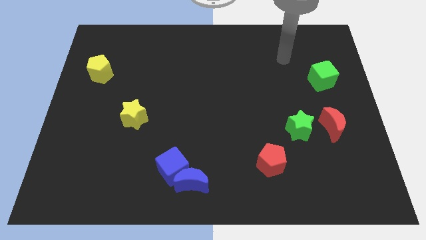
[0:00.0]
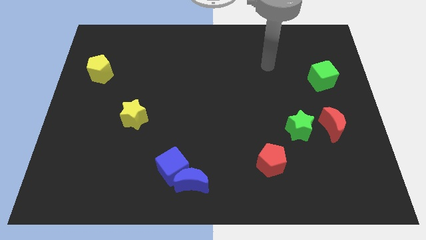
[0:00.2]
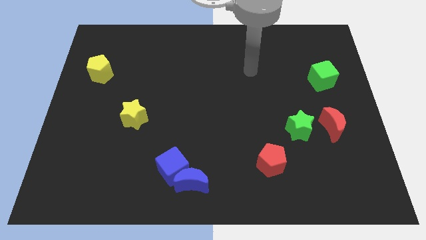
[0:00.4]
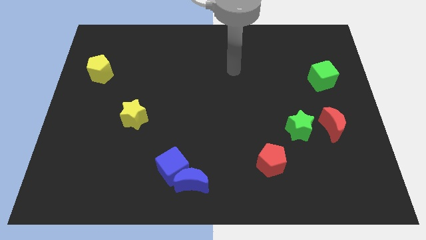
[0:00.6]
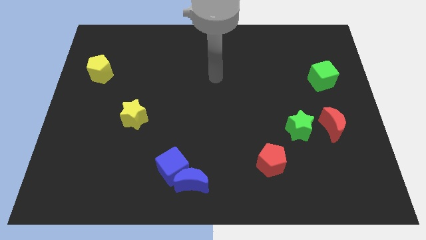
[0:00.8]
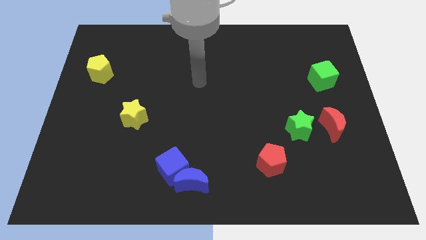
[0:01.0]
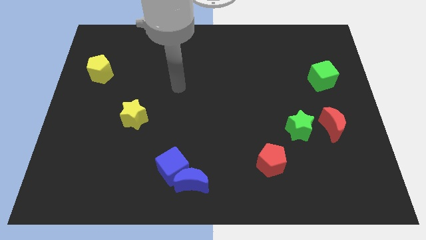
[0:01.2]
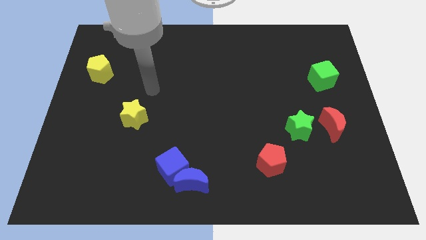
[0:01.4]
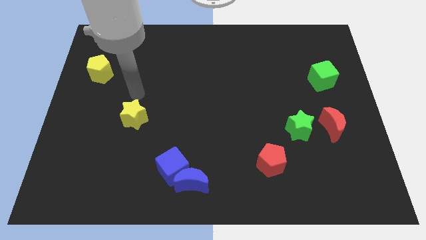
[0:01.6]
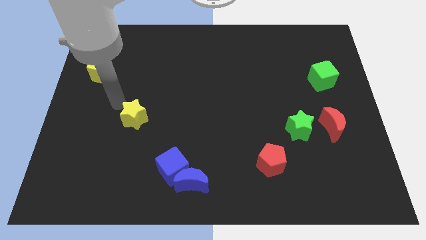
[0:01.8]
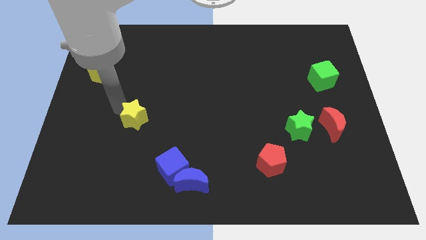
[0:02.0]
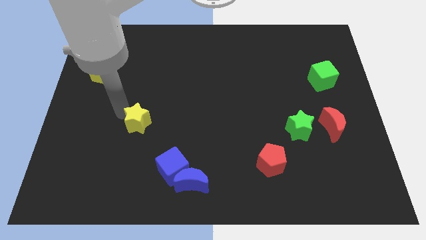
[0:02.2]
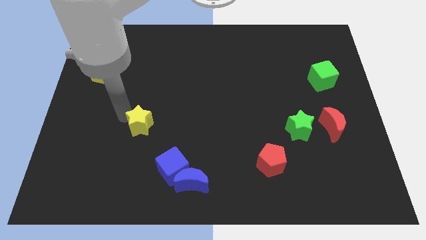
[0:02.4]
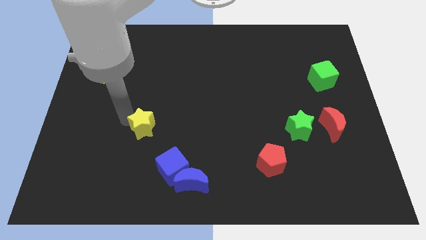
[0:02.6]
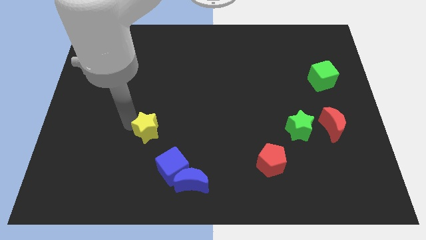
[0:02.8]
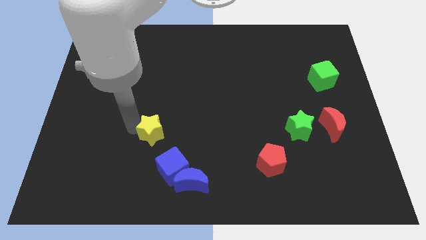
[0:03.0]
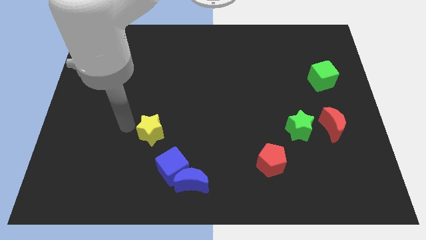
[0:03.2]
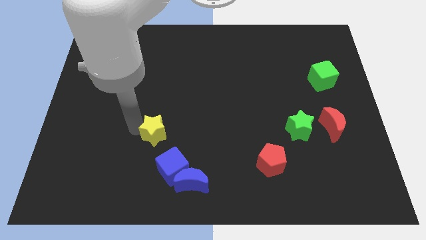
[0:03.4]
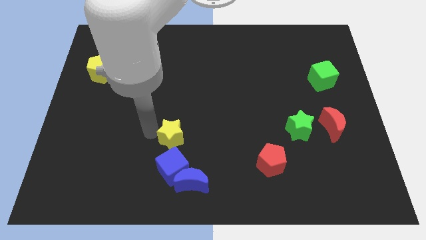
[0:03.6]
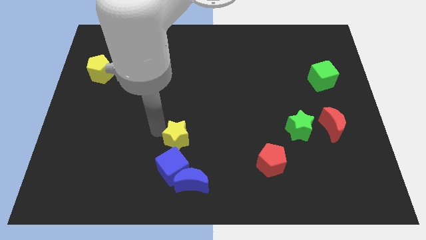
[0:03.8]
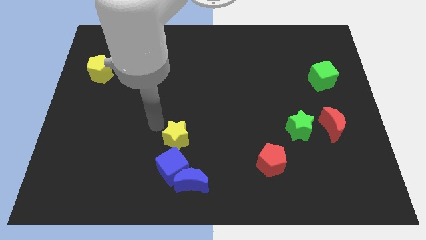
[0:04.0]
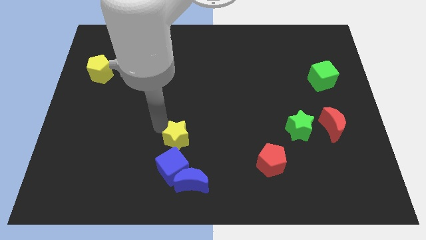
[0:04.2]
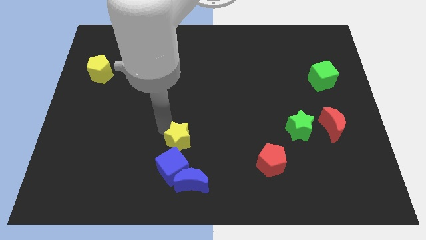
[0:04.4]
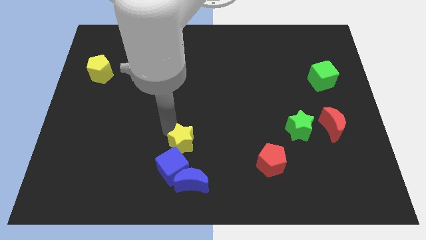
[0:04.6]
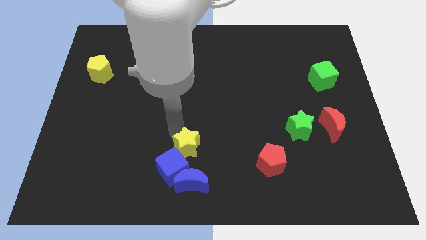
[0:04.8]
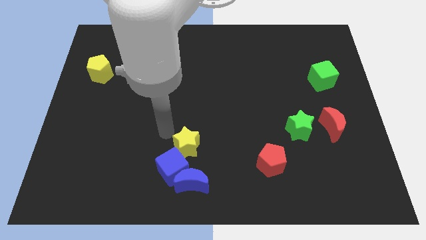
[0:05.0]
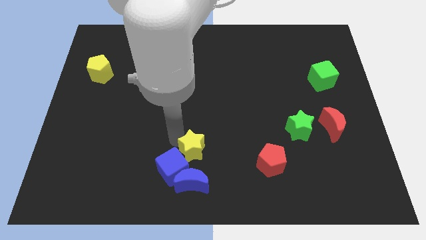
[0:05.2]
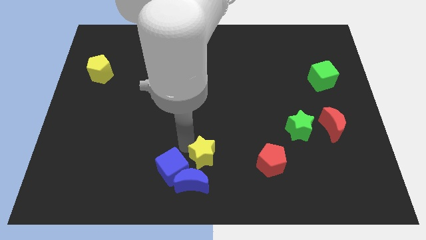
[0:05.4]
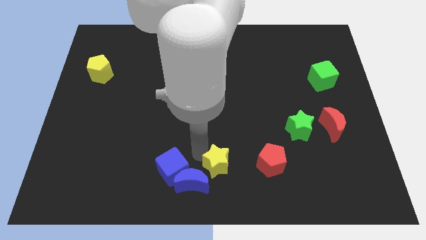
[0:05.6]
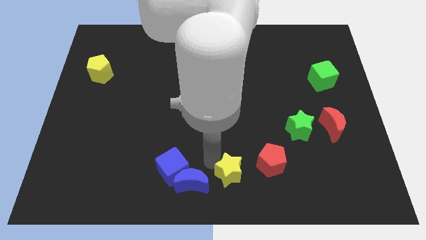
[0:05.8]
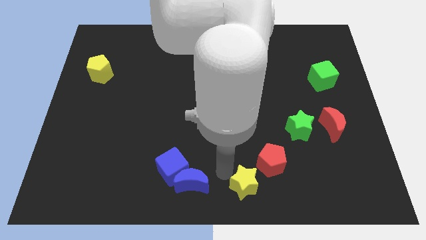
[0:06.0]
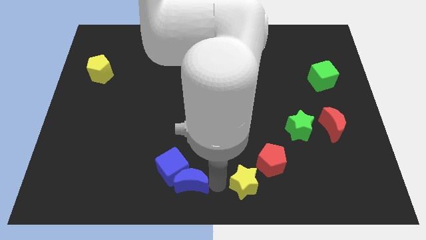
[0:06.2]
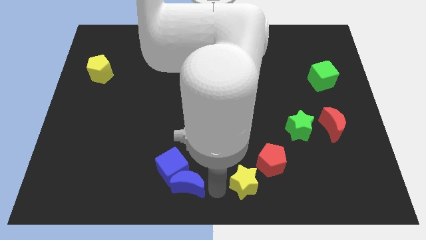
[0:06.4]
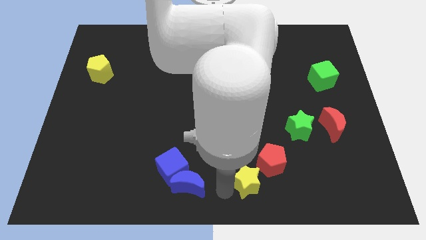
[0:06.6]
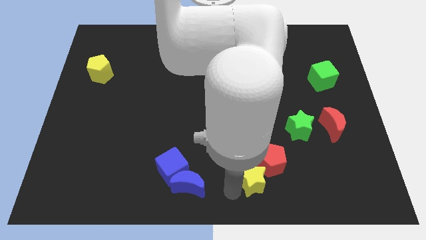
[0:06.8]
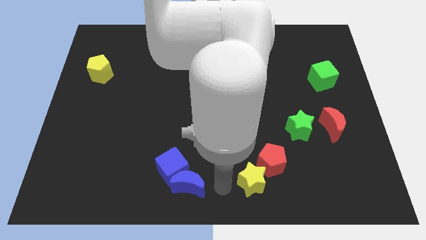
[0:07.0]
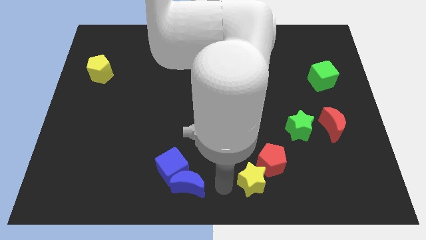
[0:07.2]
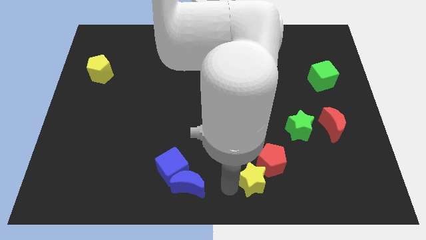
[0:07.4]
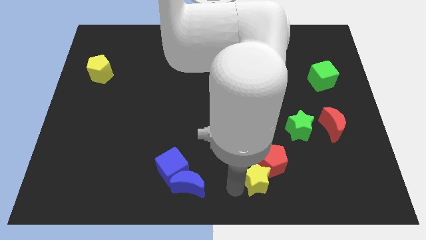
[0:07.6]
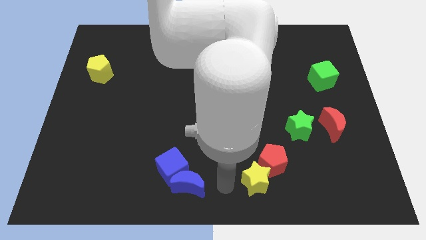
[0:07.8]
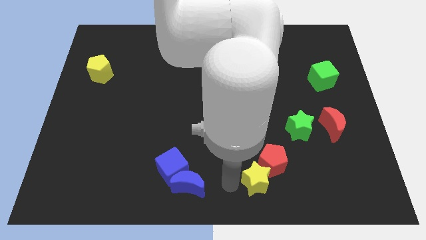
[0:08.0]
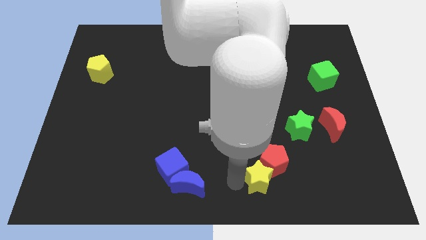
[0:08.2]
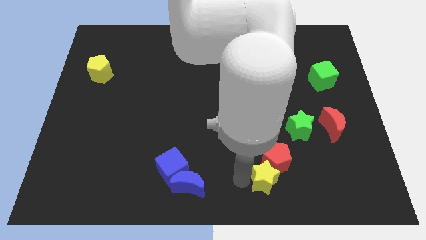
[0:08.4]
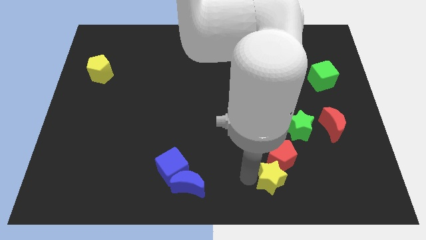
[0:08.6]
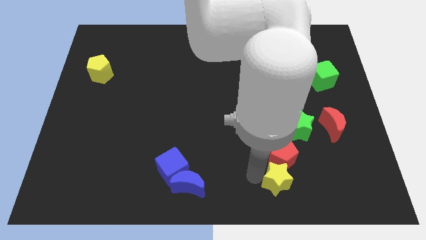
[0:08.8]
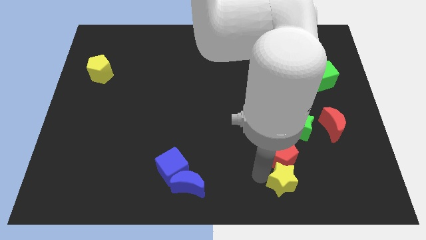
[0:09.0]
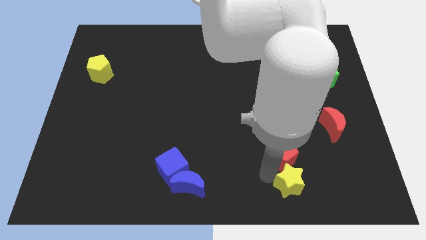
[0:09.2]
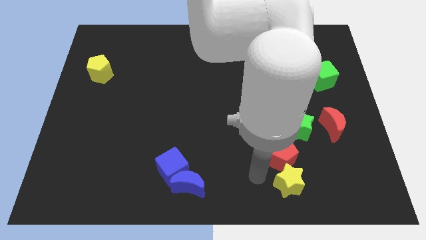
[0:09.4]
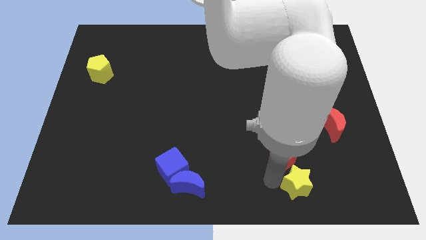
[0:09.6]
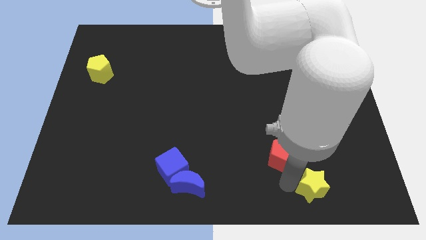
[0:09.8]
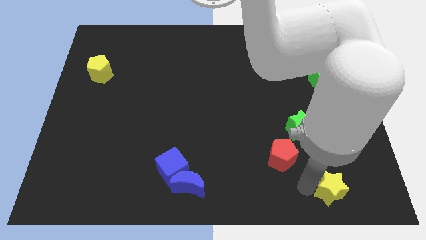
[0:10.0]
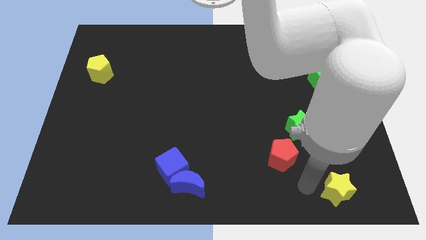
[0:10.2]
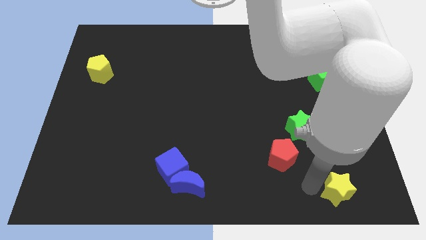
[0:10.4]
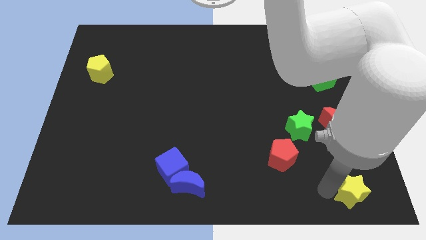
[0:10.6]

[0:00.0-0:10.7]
push the yellow star to the bottom right of the board

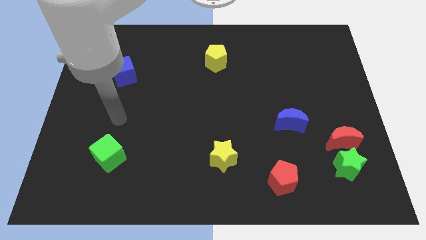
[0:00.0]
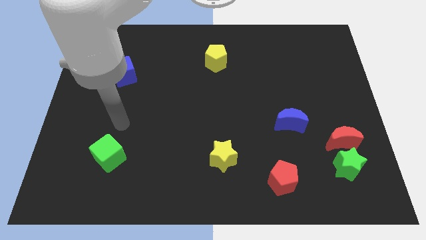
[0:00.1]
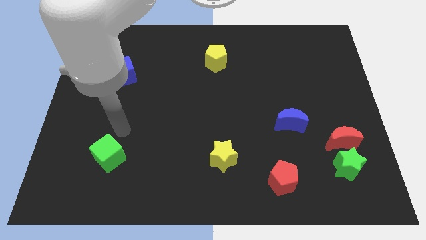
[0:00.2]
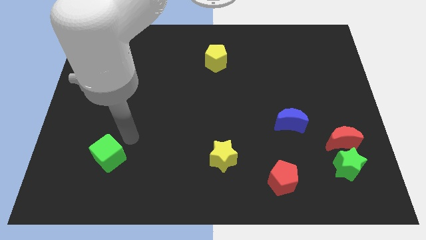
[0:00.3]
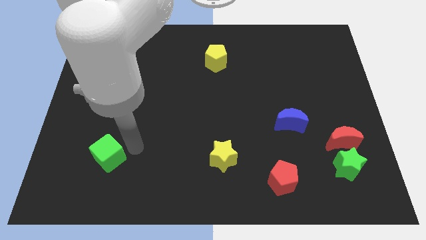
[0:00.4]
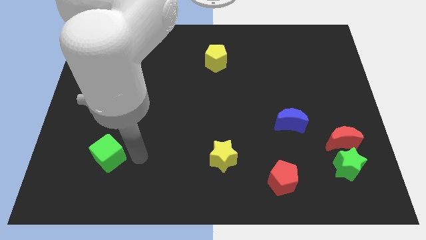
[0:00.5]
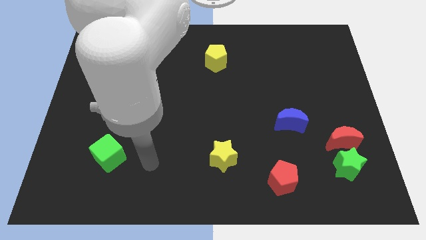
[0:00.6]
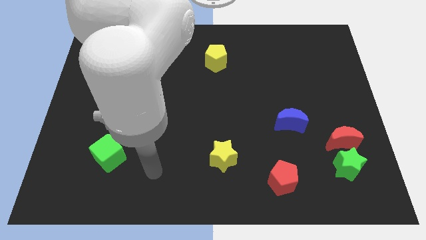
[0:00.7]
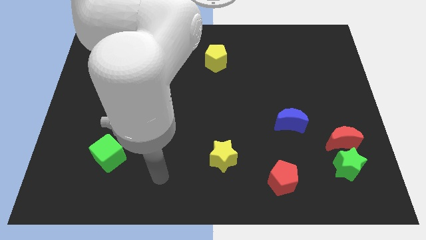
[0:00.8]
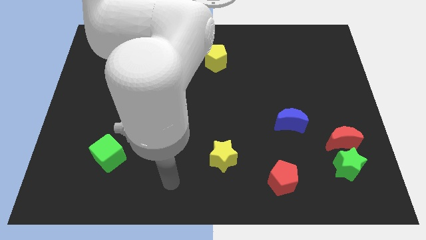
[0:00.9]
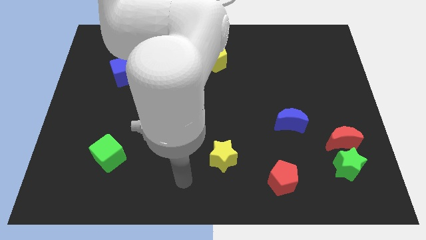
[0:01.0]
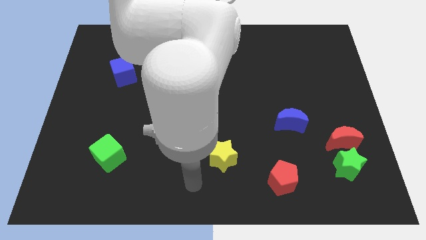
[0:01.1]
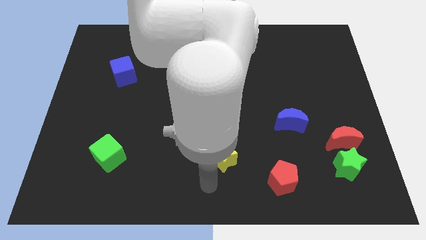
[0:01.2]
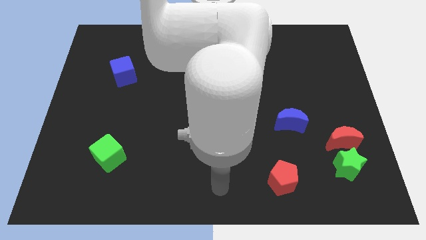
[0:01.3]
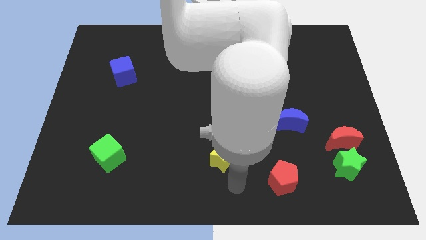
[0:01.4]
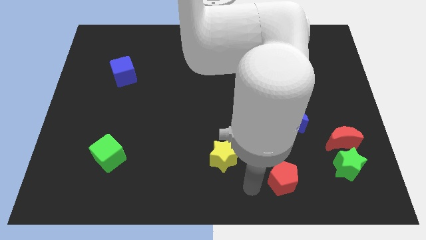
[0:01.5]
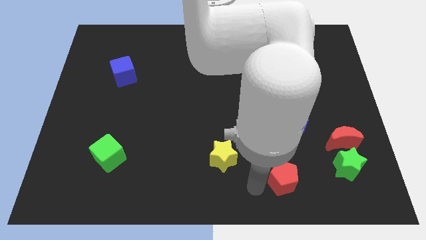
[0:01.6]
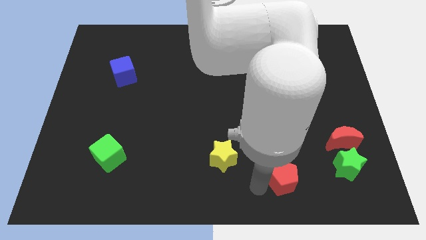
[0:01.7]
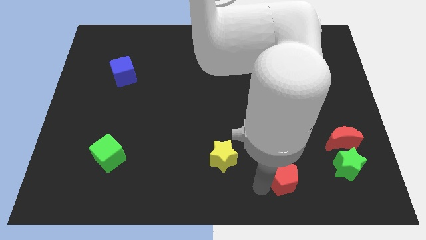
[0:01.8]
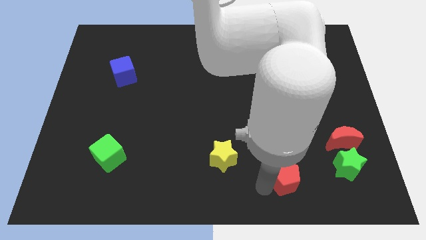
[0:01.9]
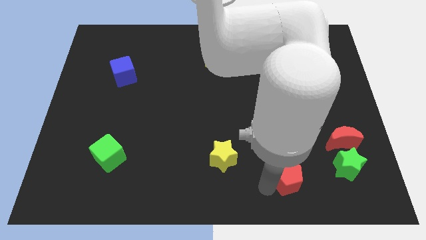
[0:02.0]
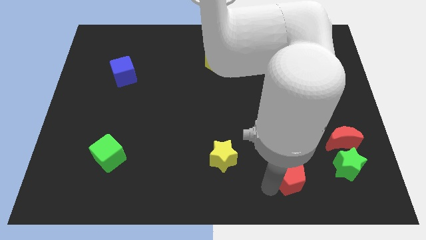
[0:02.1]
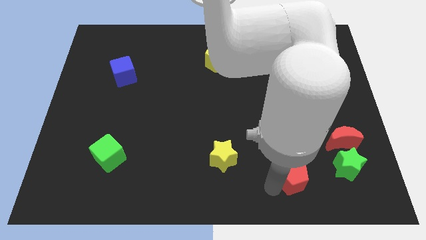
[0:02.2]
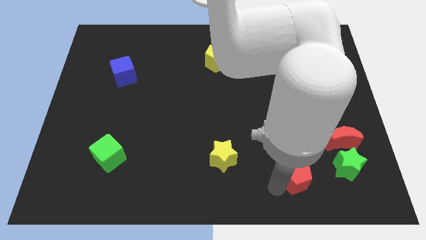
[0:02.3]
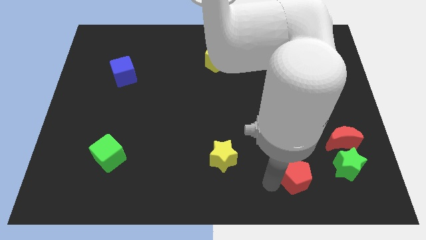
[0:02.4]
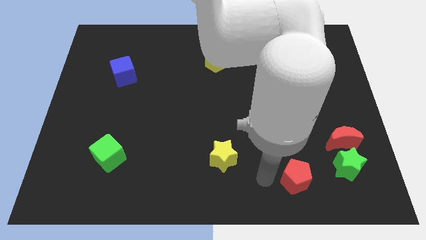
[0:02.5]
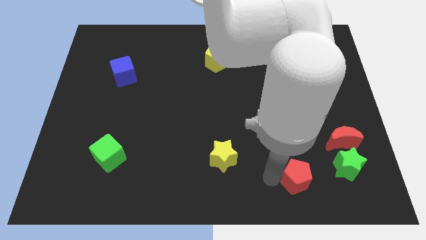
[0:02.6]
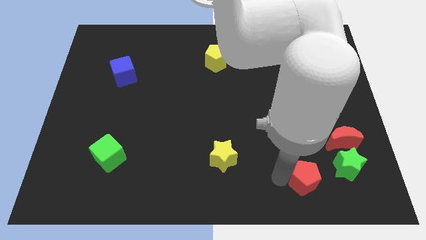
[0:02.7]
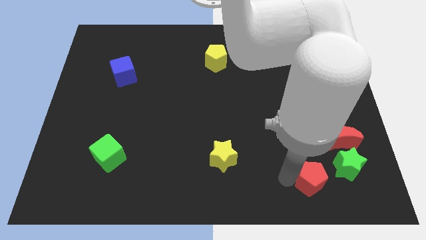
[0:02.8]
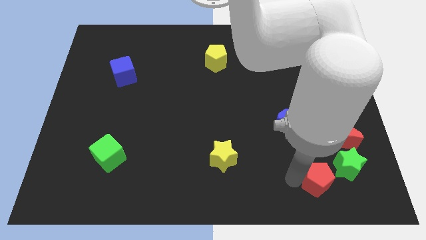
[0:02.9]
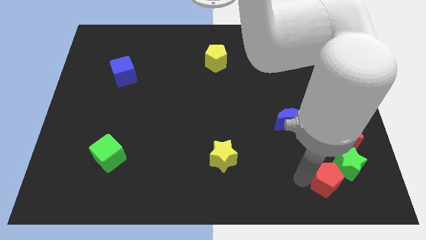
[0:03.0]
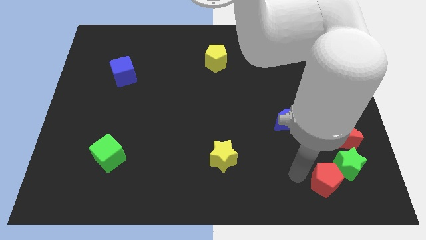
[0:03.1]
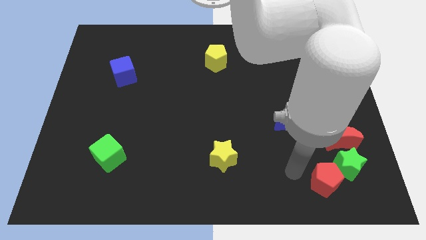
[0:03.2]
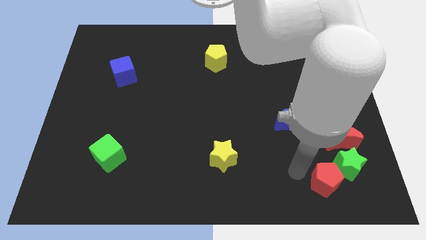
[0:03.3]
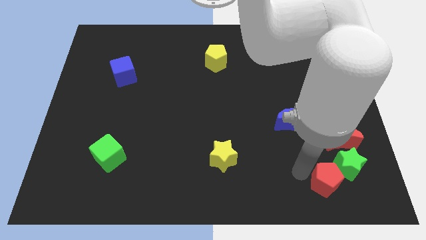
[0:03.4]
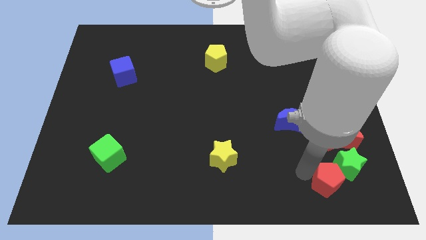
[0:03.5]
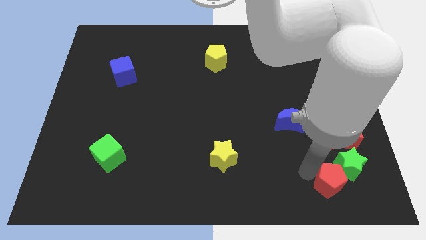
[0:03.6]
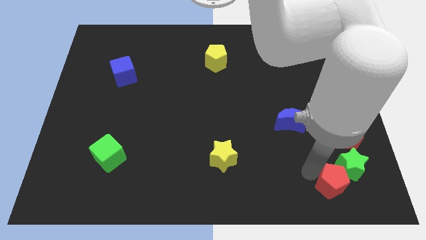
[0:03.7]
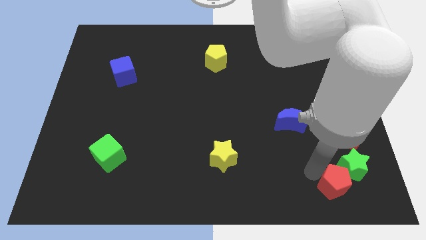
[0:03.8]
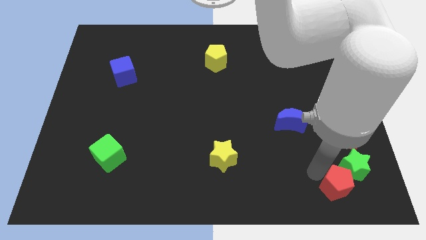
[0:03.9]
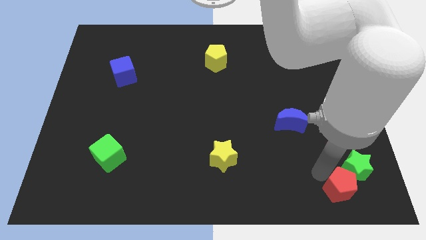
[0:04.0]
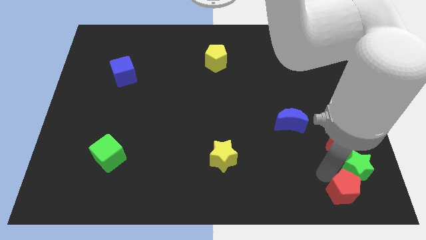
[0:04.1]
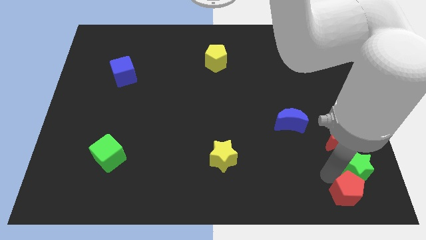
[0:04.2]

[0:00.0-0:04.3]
move the red pentagon to the bottom right corner
